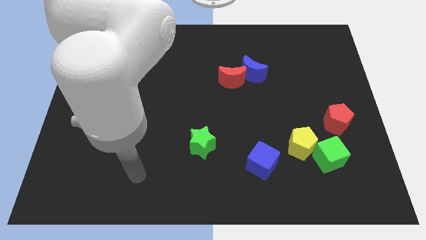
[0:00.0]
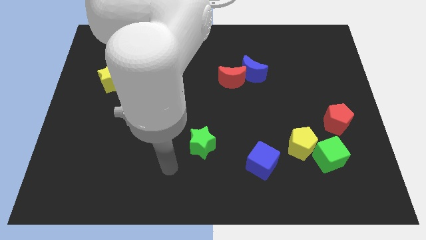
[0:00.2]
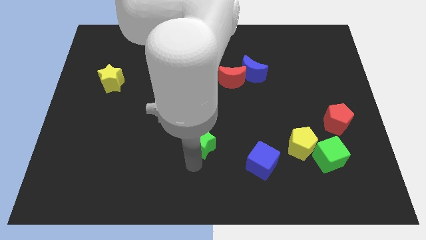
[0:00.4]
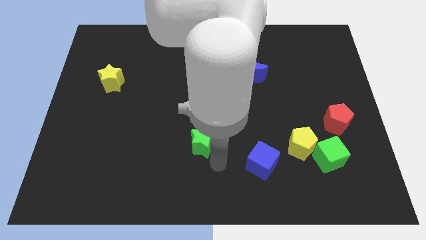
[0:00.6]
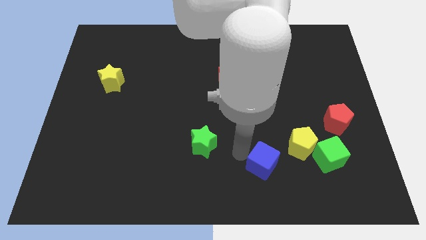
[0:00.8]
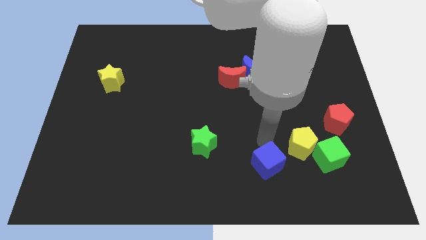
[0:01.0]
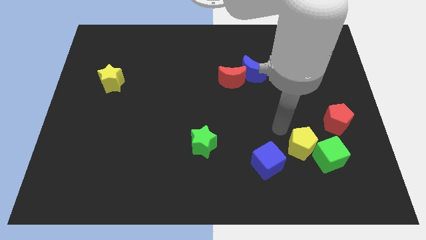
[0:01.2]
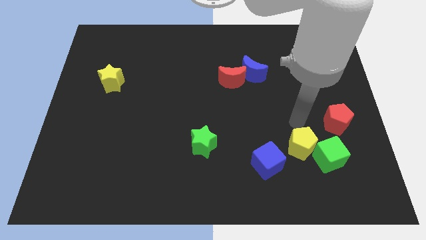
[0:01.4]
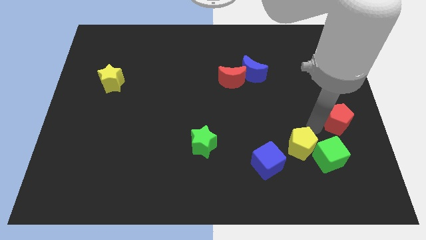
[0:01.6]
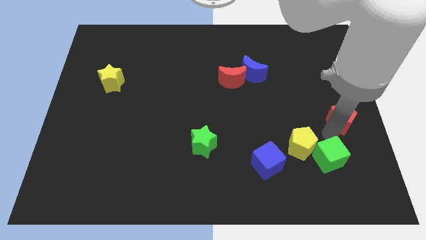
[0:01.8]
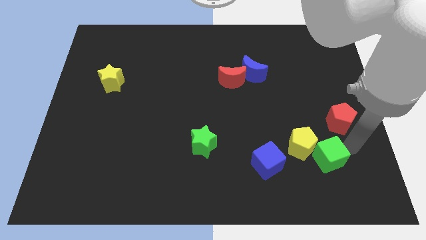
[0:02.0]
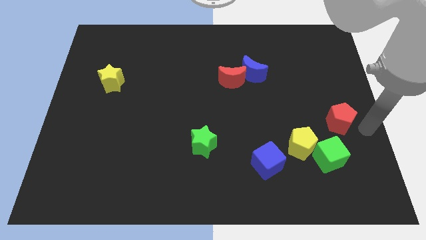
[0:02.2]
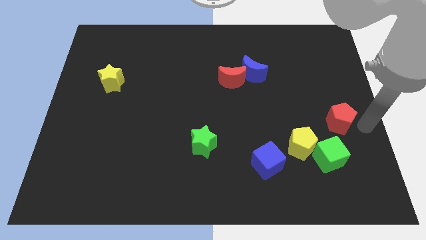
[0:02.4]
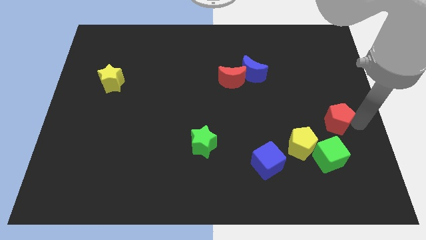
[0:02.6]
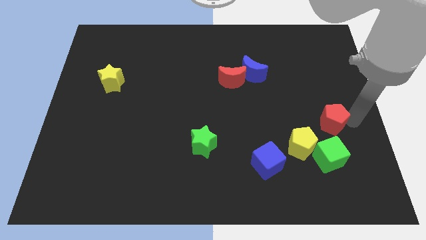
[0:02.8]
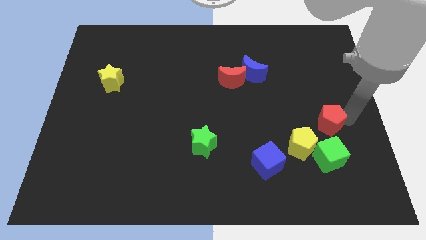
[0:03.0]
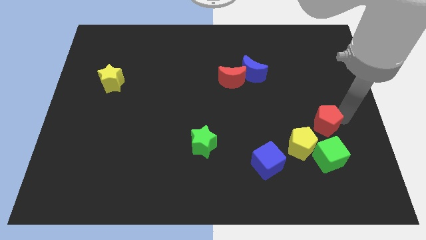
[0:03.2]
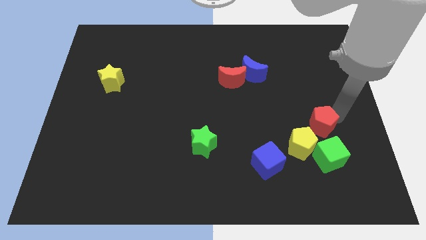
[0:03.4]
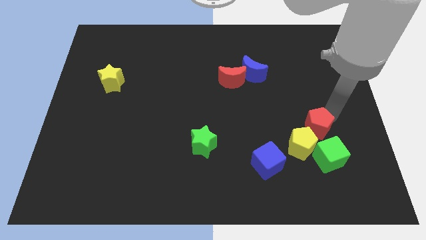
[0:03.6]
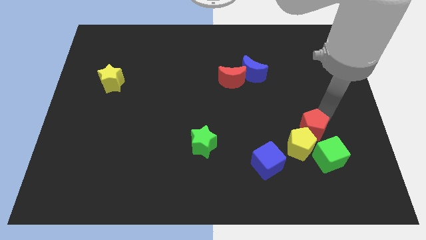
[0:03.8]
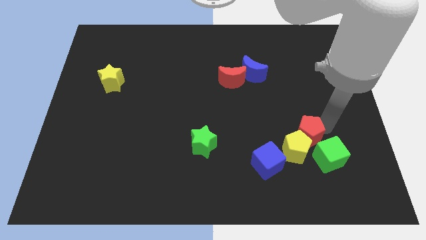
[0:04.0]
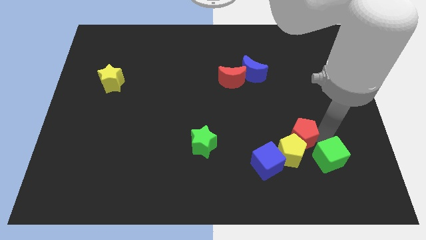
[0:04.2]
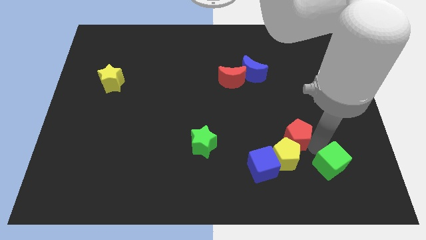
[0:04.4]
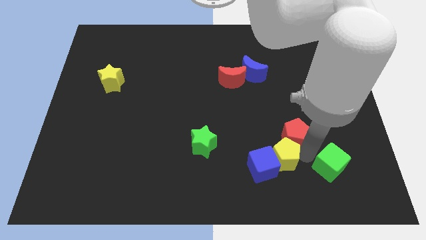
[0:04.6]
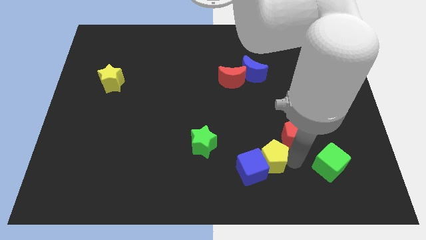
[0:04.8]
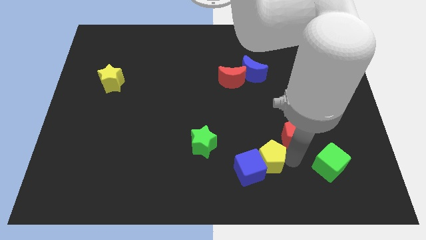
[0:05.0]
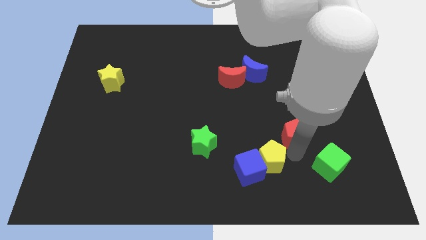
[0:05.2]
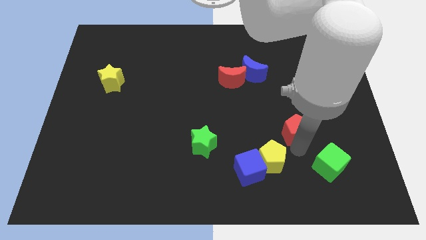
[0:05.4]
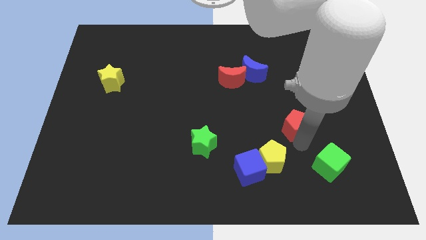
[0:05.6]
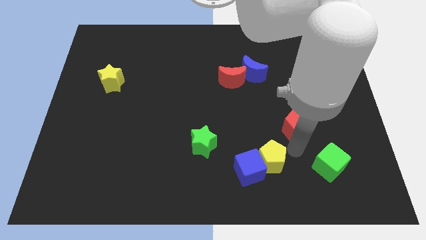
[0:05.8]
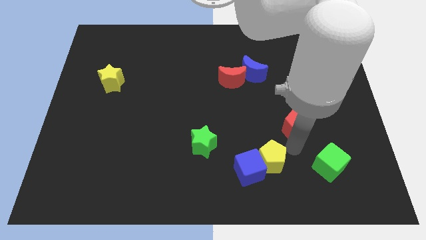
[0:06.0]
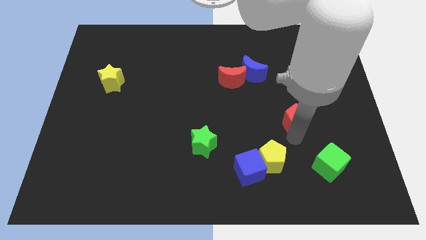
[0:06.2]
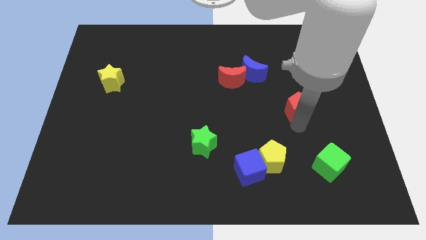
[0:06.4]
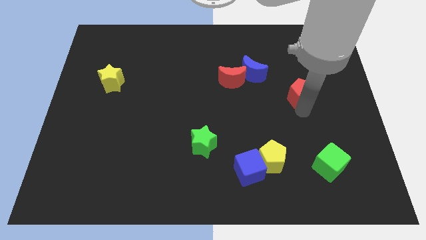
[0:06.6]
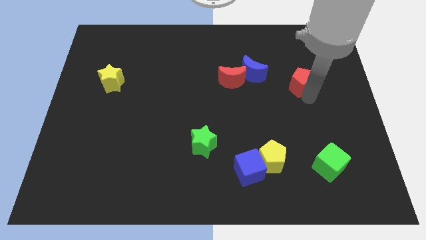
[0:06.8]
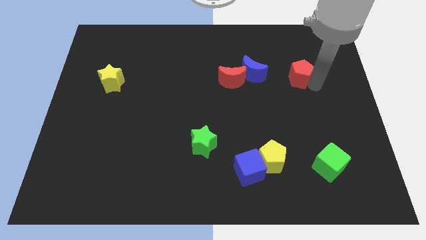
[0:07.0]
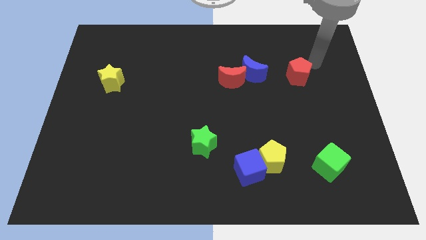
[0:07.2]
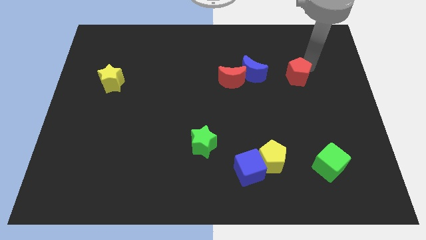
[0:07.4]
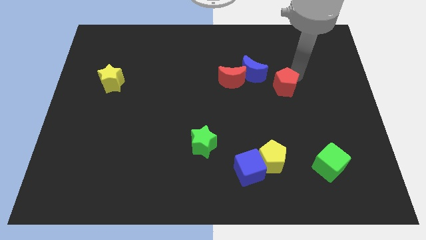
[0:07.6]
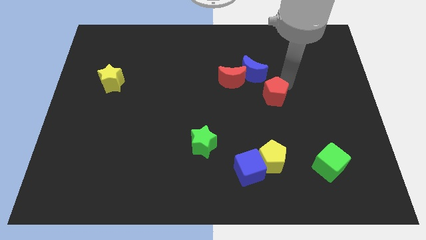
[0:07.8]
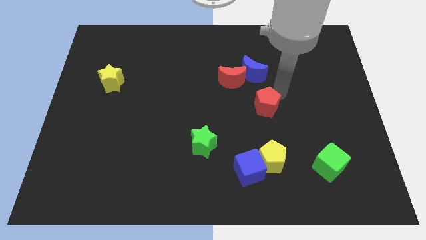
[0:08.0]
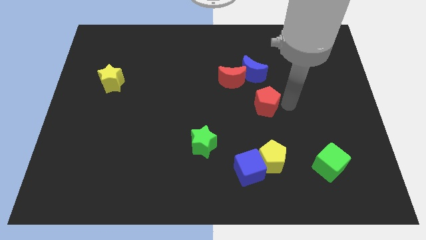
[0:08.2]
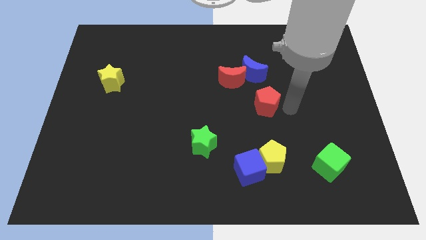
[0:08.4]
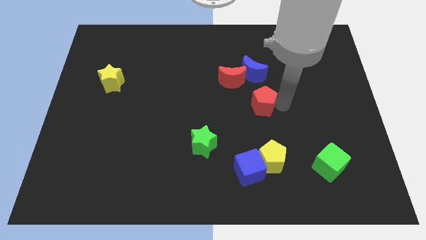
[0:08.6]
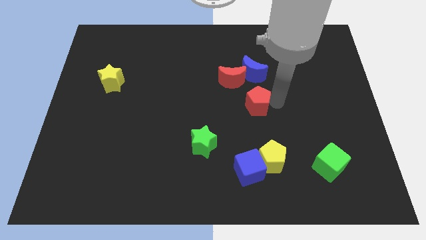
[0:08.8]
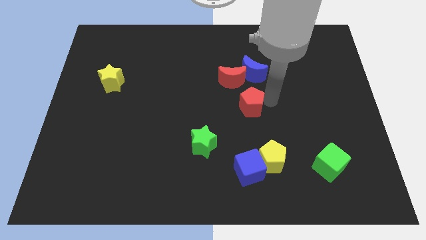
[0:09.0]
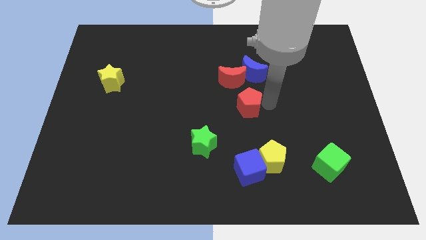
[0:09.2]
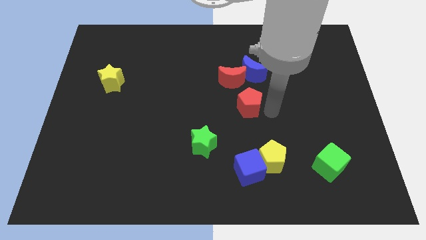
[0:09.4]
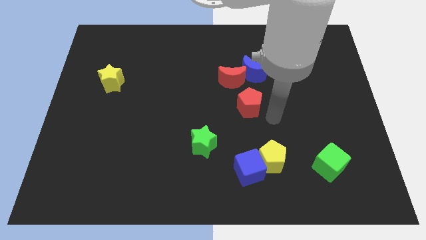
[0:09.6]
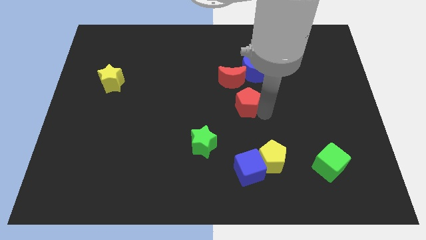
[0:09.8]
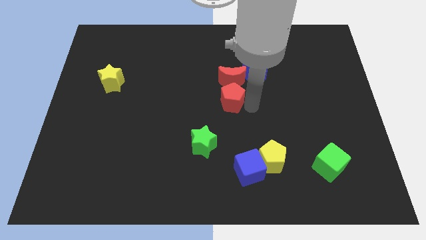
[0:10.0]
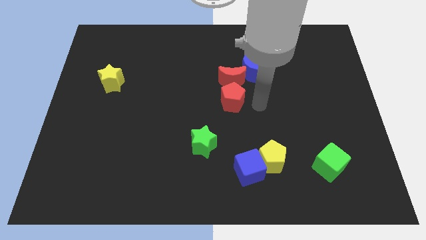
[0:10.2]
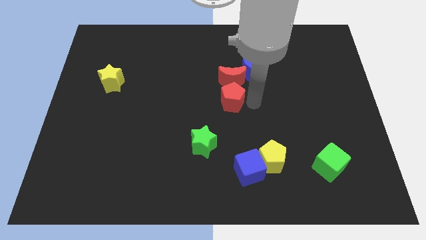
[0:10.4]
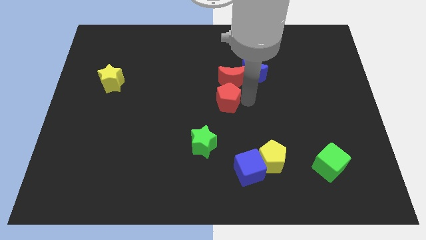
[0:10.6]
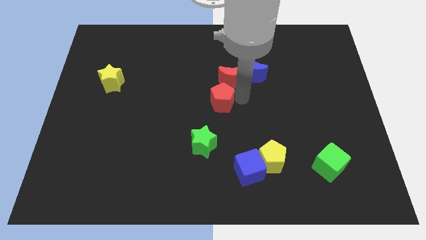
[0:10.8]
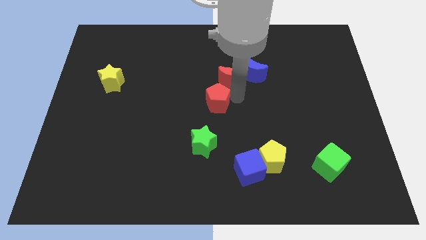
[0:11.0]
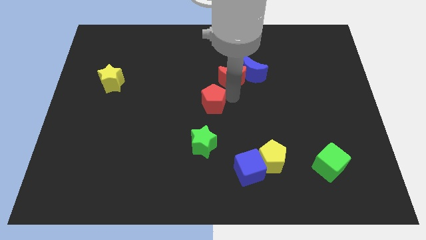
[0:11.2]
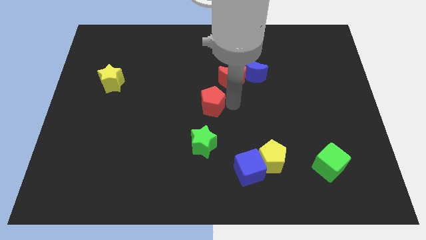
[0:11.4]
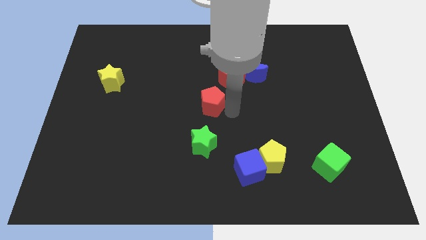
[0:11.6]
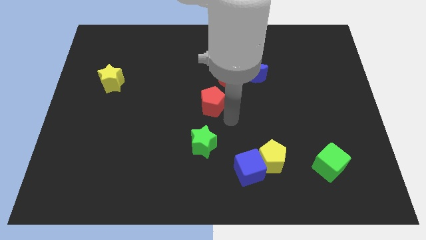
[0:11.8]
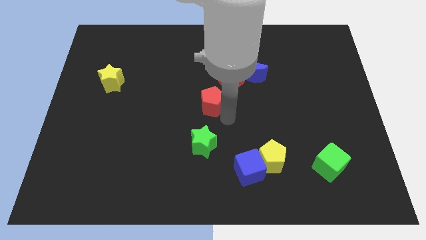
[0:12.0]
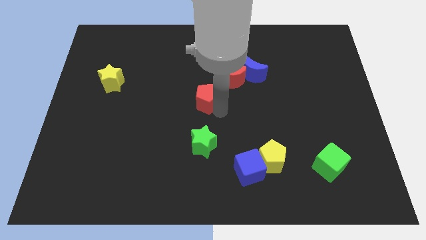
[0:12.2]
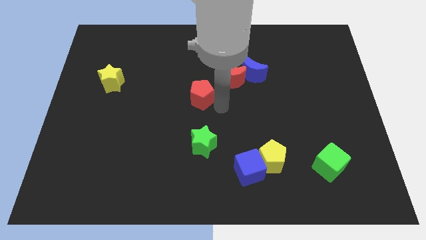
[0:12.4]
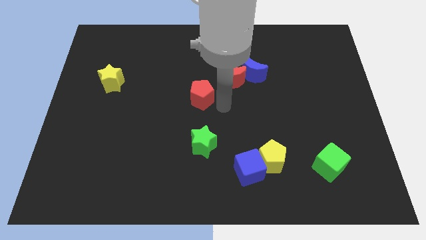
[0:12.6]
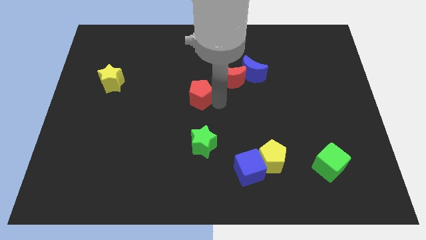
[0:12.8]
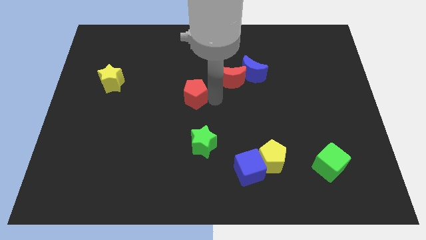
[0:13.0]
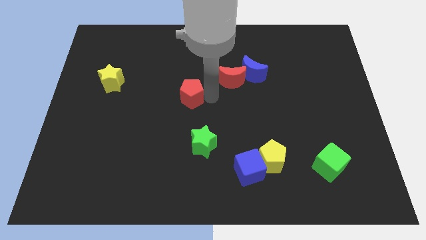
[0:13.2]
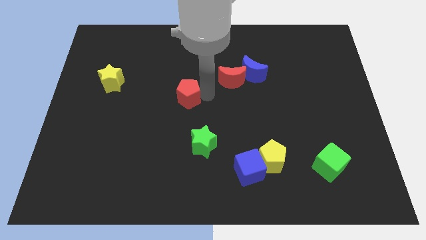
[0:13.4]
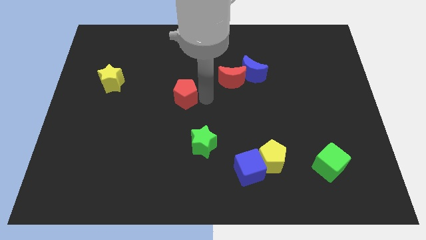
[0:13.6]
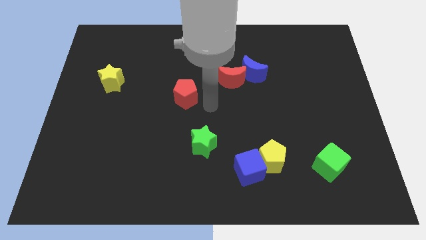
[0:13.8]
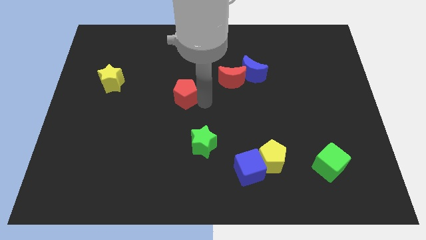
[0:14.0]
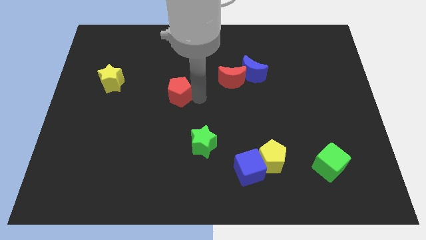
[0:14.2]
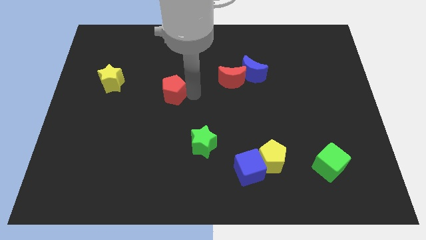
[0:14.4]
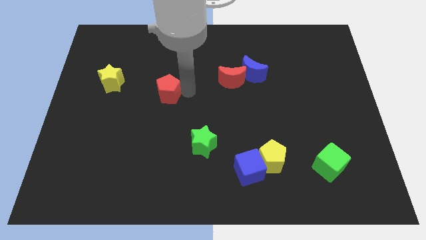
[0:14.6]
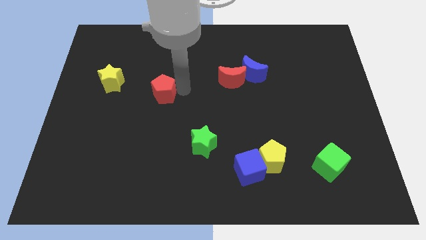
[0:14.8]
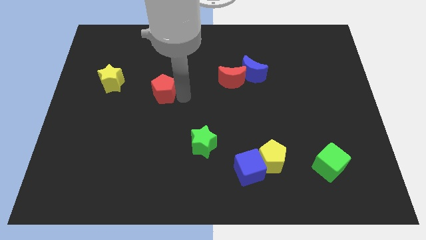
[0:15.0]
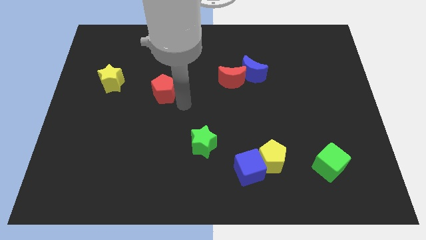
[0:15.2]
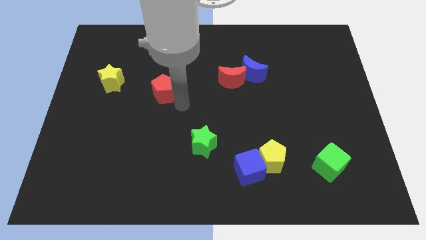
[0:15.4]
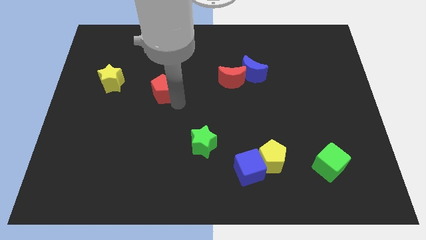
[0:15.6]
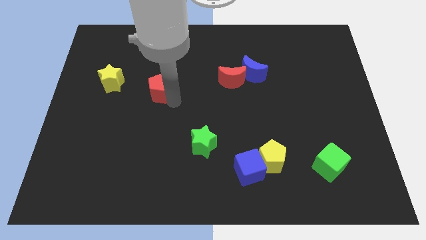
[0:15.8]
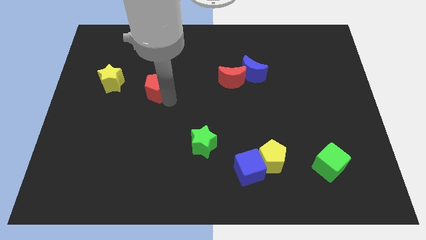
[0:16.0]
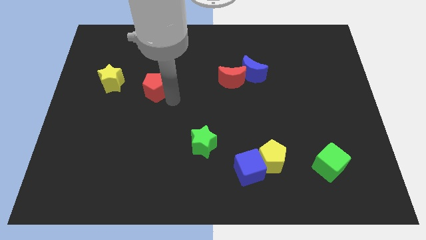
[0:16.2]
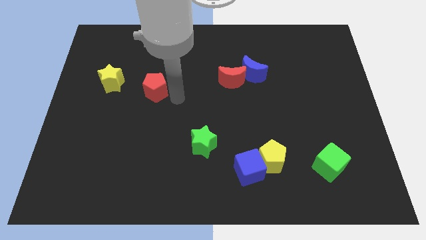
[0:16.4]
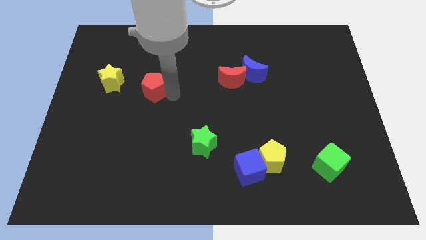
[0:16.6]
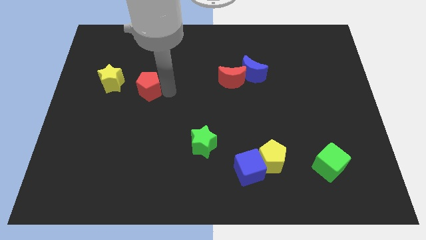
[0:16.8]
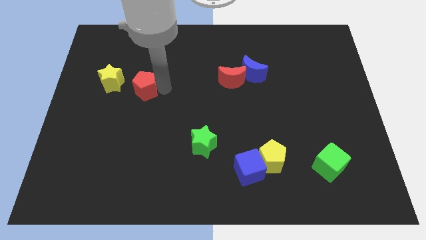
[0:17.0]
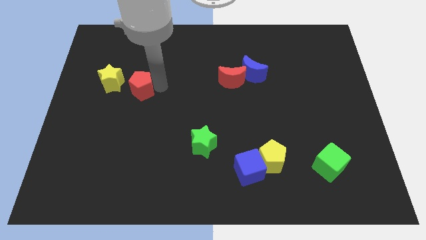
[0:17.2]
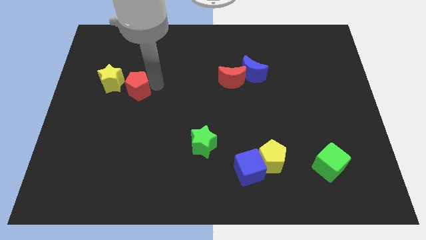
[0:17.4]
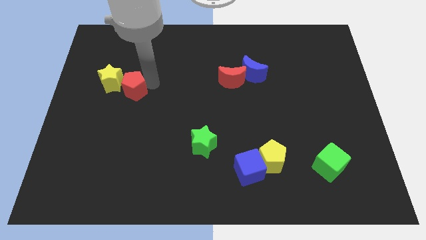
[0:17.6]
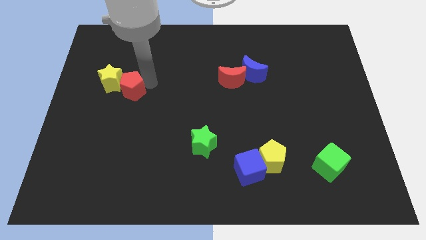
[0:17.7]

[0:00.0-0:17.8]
move the red pentagon next to the yellow star
